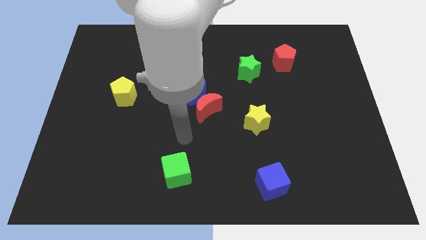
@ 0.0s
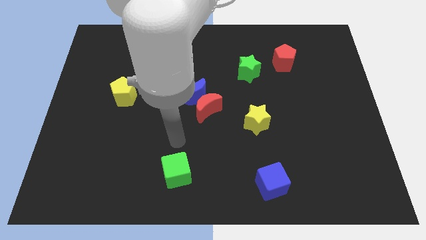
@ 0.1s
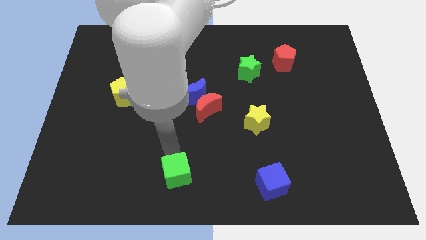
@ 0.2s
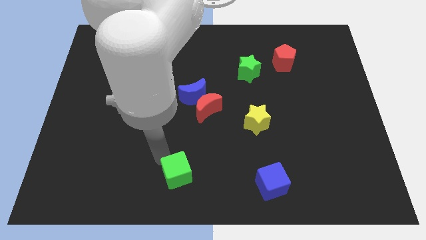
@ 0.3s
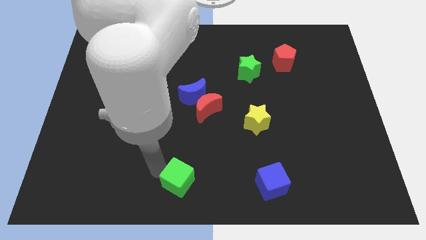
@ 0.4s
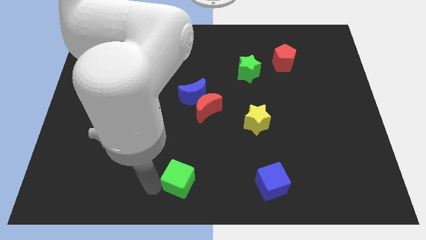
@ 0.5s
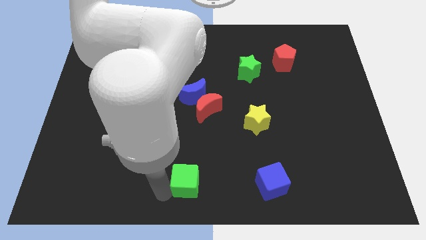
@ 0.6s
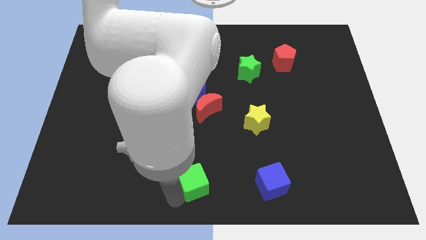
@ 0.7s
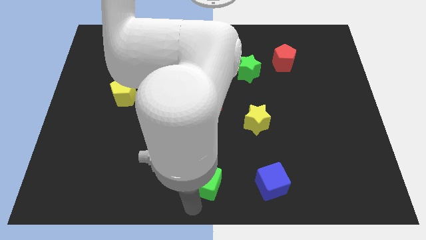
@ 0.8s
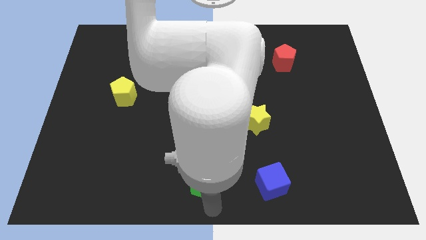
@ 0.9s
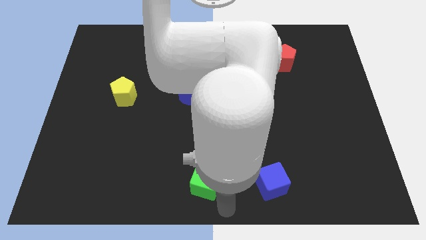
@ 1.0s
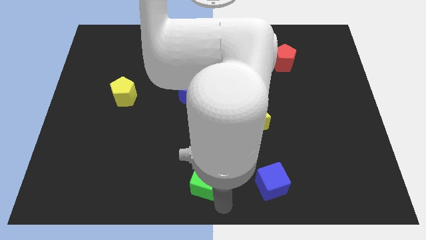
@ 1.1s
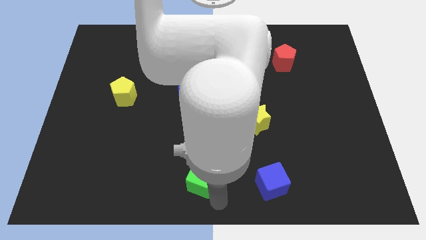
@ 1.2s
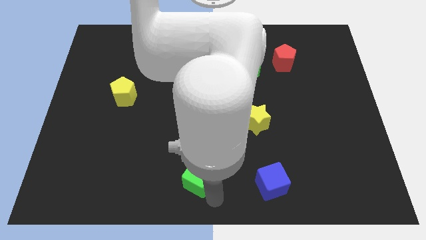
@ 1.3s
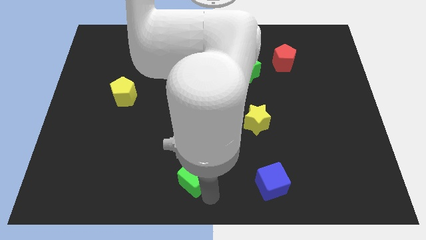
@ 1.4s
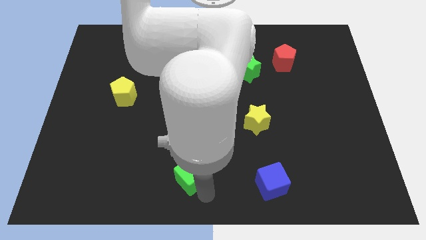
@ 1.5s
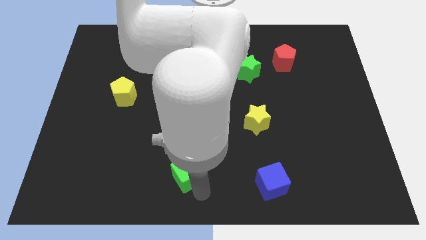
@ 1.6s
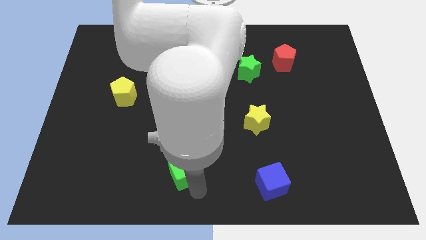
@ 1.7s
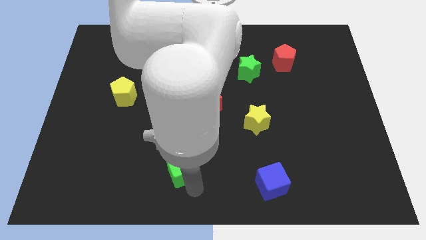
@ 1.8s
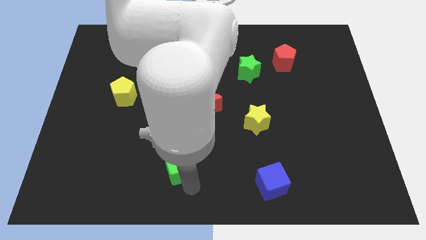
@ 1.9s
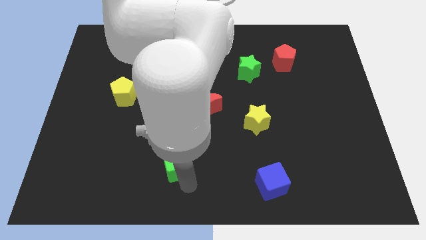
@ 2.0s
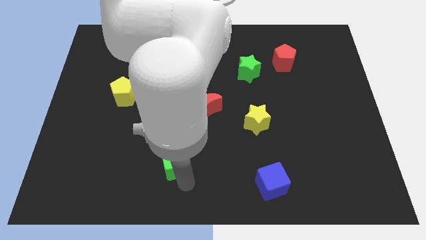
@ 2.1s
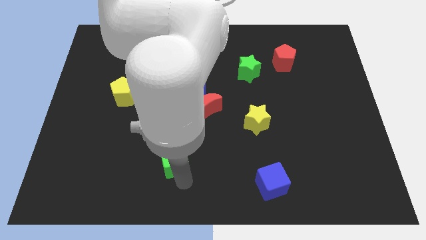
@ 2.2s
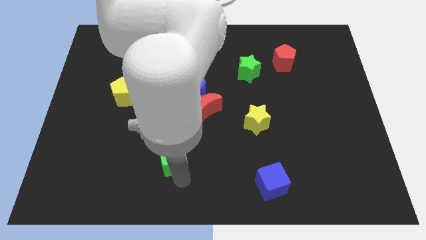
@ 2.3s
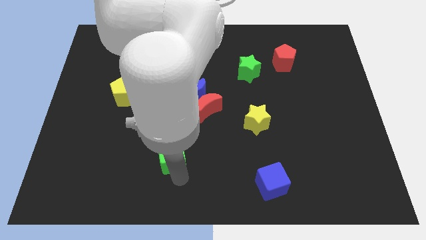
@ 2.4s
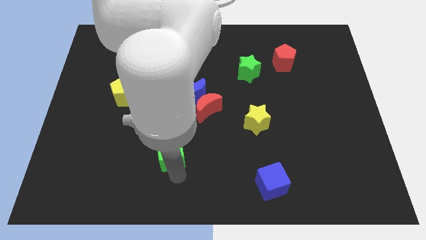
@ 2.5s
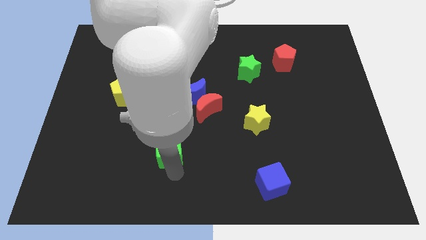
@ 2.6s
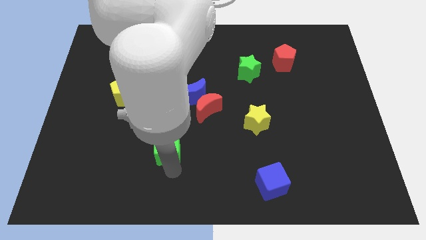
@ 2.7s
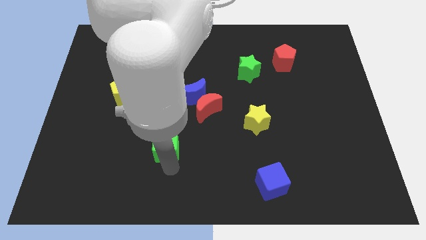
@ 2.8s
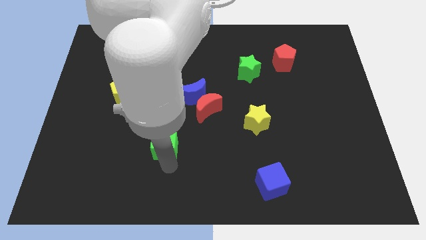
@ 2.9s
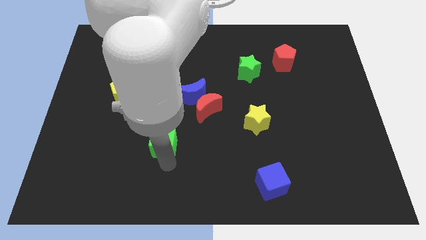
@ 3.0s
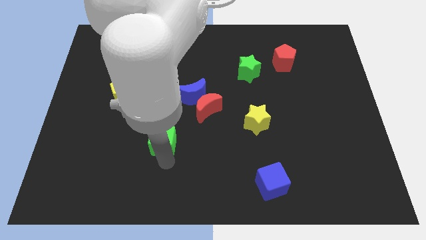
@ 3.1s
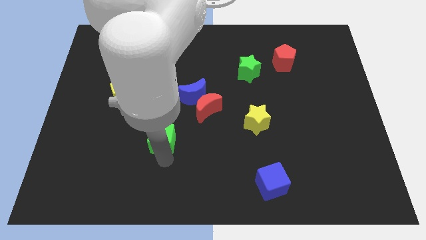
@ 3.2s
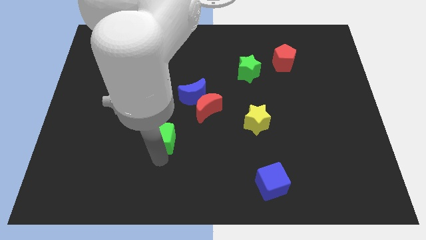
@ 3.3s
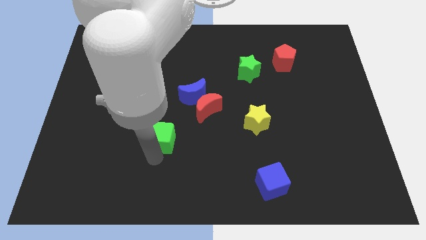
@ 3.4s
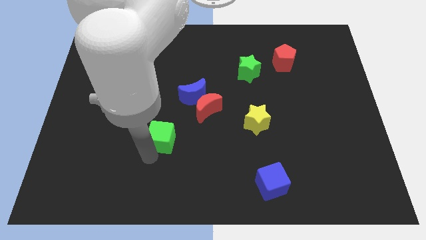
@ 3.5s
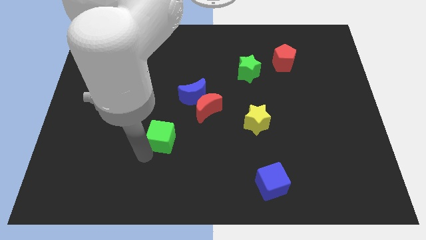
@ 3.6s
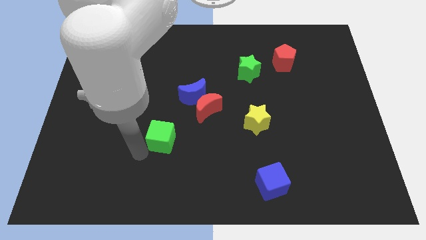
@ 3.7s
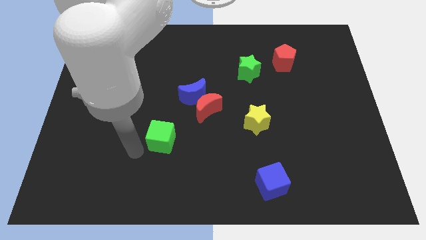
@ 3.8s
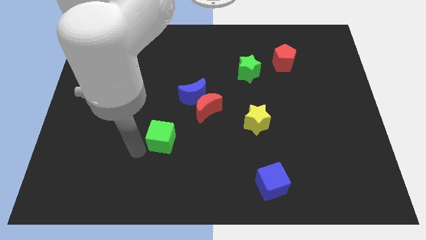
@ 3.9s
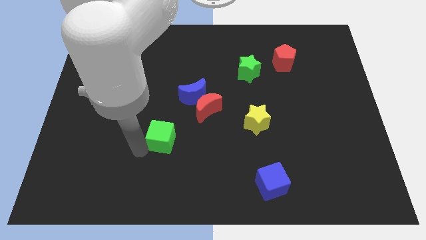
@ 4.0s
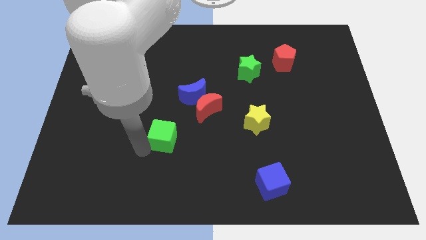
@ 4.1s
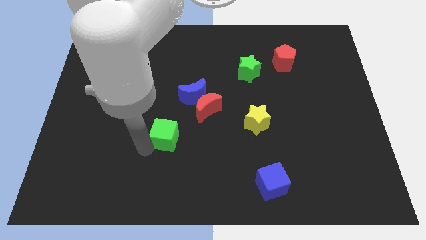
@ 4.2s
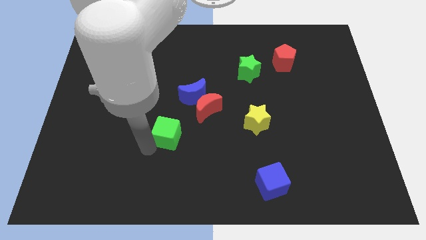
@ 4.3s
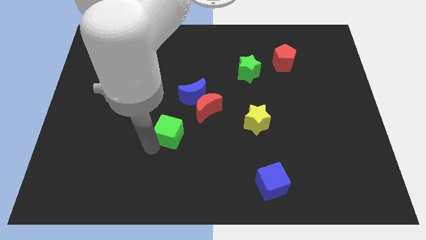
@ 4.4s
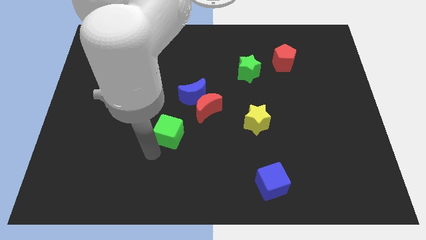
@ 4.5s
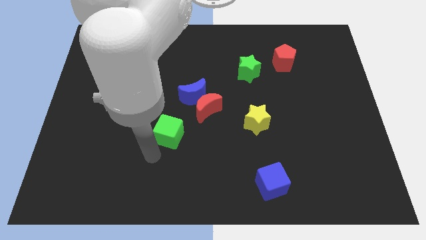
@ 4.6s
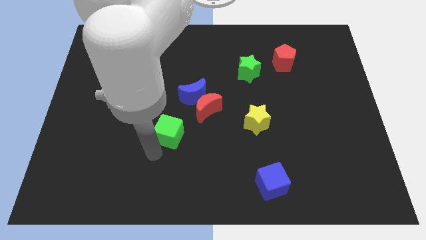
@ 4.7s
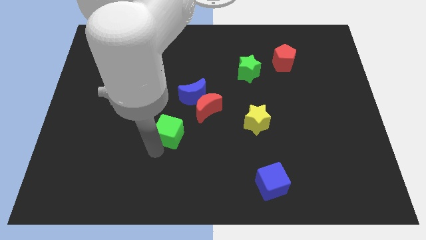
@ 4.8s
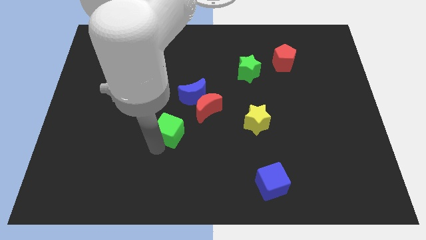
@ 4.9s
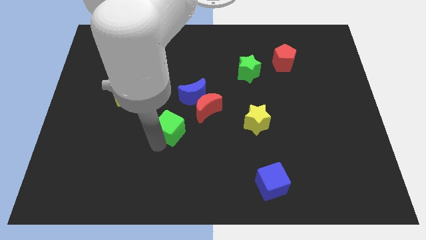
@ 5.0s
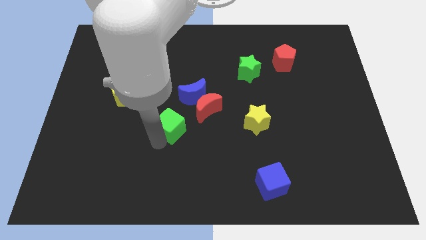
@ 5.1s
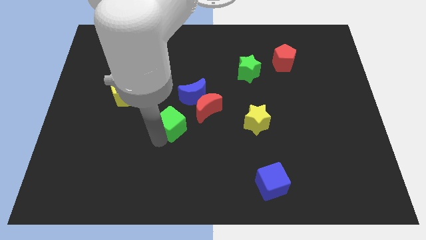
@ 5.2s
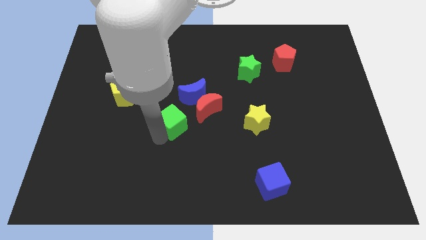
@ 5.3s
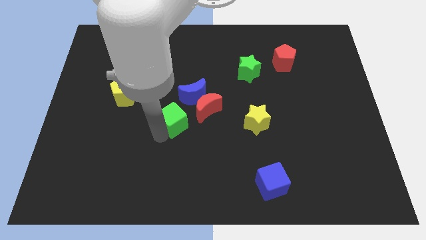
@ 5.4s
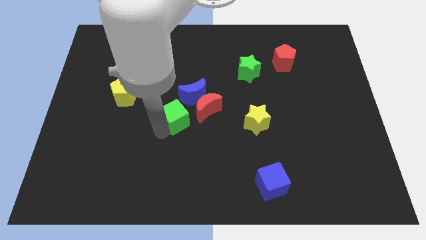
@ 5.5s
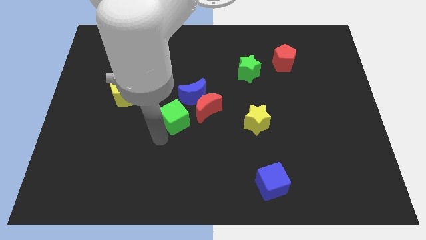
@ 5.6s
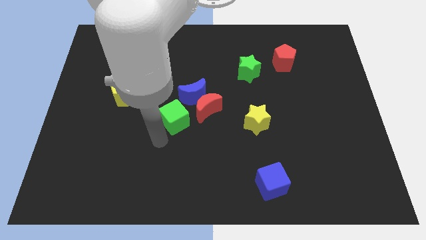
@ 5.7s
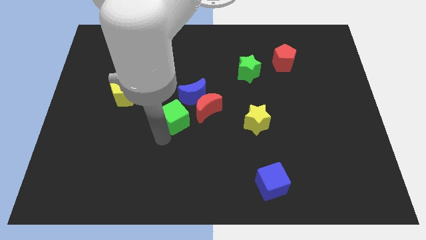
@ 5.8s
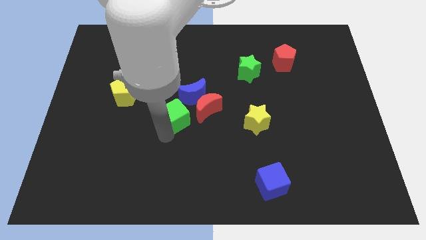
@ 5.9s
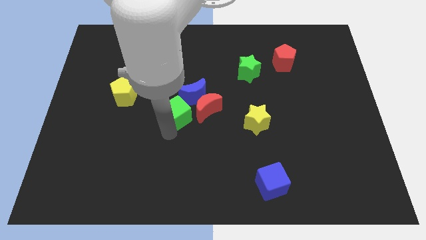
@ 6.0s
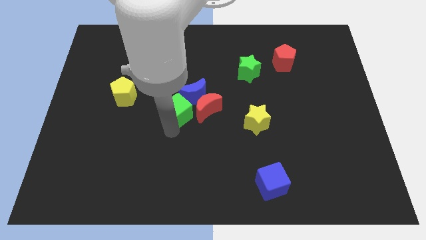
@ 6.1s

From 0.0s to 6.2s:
slide the green cube towards the blue moon

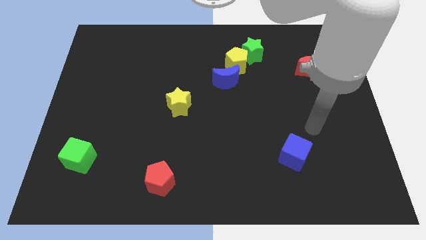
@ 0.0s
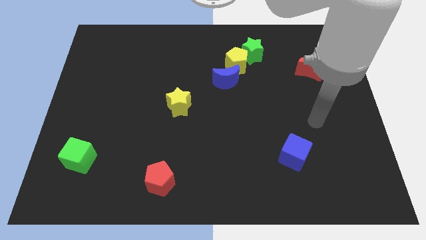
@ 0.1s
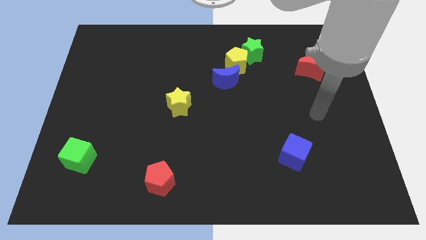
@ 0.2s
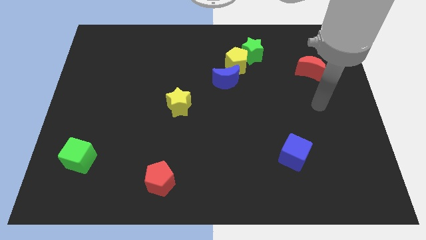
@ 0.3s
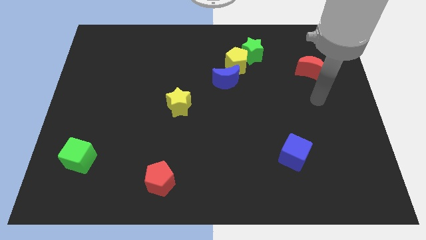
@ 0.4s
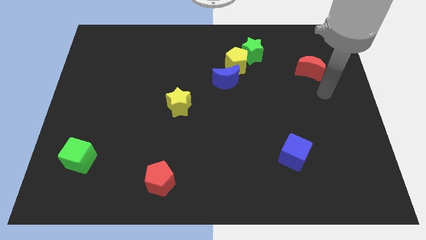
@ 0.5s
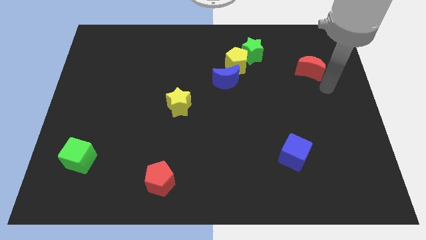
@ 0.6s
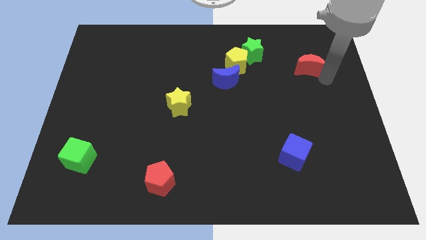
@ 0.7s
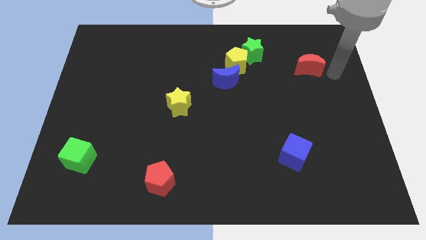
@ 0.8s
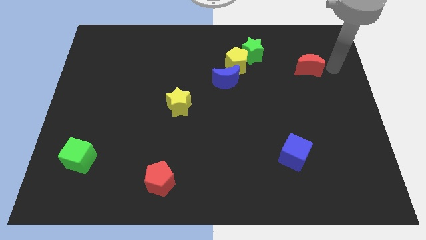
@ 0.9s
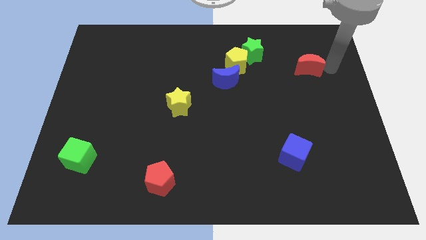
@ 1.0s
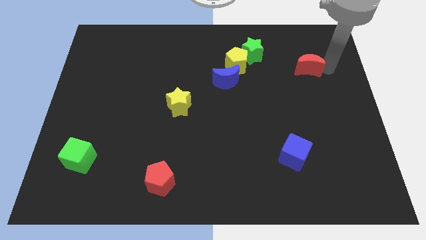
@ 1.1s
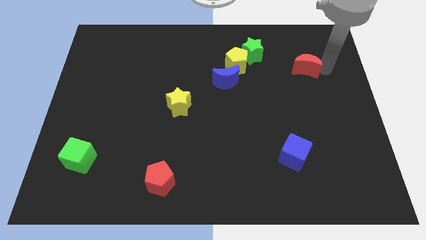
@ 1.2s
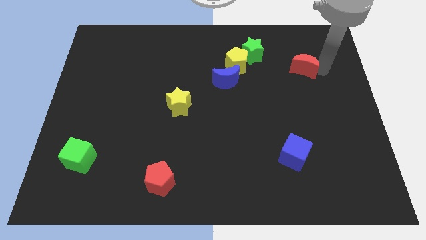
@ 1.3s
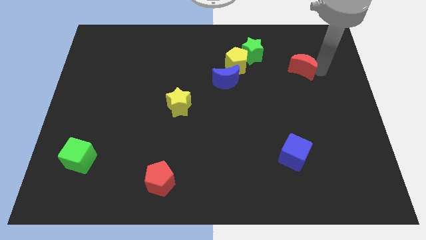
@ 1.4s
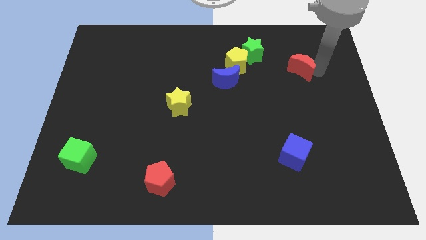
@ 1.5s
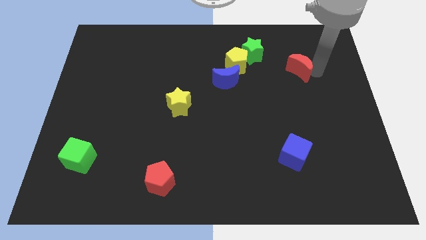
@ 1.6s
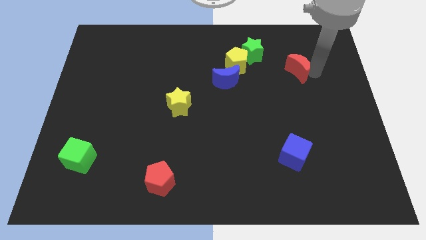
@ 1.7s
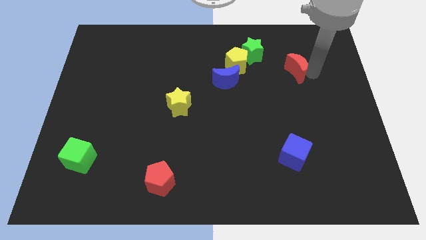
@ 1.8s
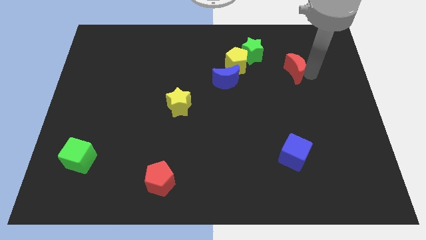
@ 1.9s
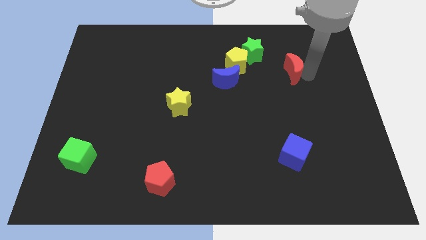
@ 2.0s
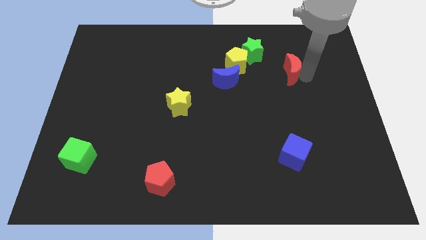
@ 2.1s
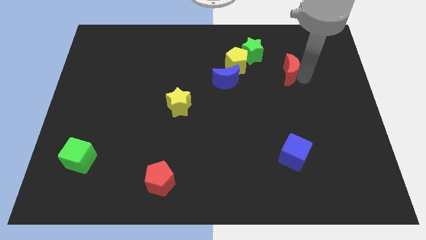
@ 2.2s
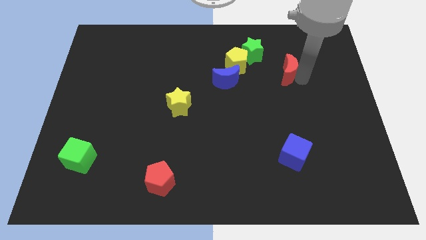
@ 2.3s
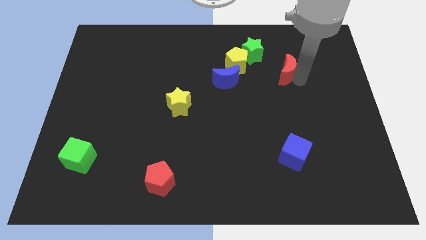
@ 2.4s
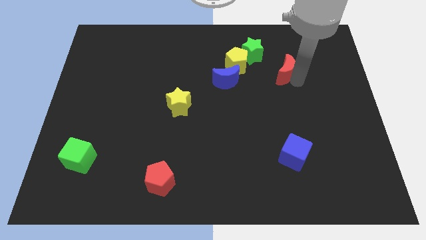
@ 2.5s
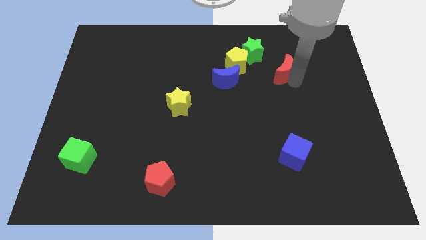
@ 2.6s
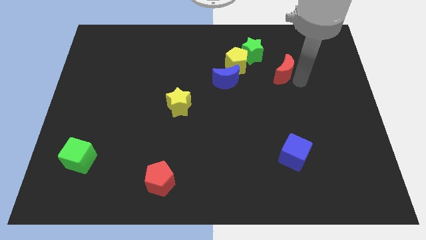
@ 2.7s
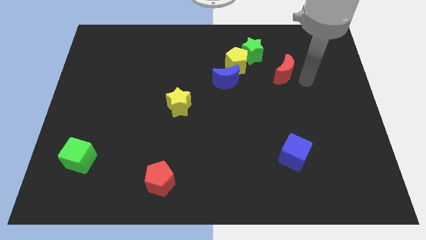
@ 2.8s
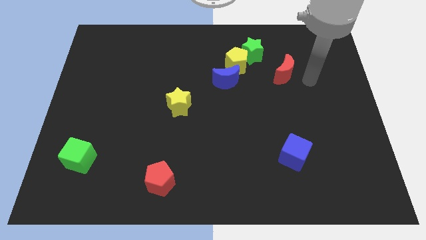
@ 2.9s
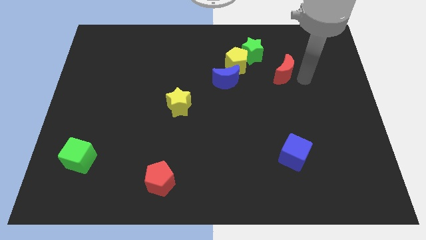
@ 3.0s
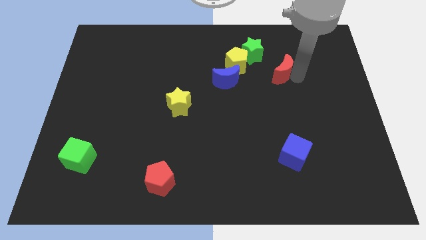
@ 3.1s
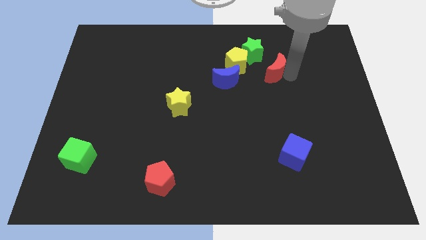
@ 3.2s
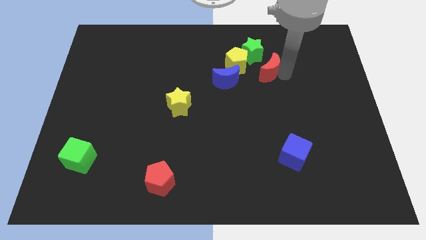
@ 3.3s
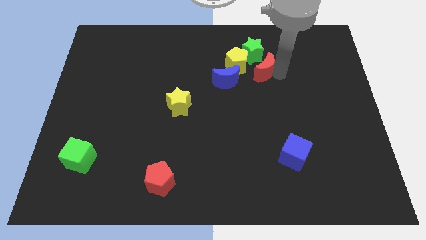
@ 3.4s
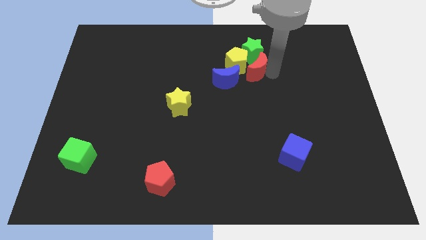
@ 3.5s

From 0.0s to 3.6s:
slide the red moon to the yellow pentagon
